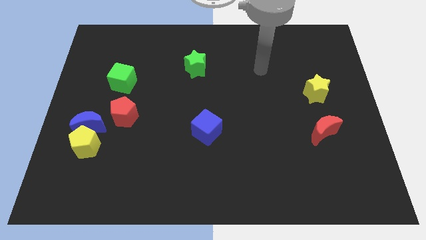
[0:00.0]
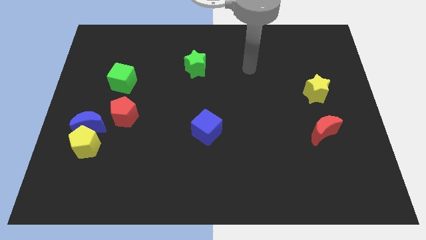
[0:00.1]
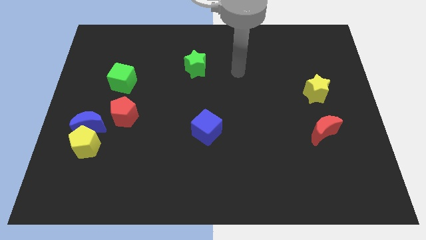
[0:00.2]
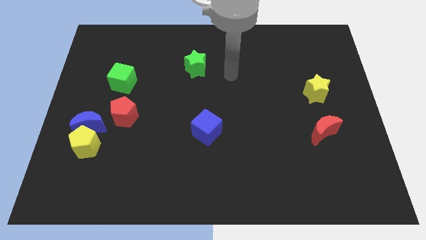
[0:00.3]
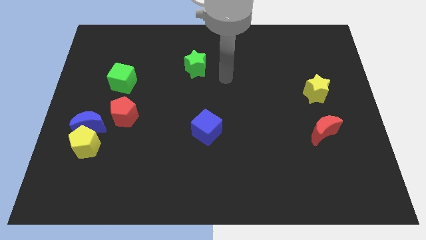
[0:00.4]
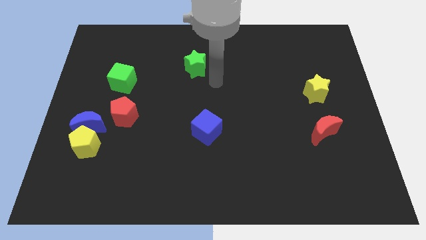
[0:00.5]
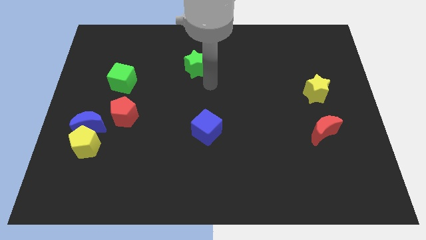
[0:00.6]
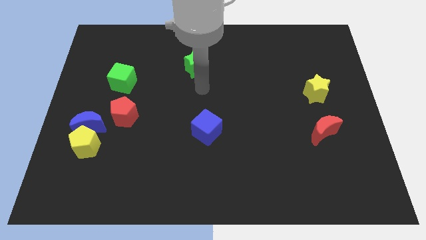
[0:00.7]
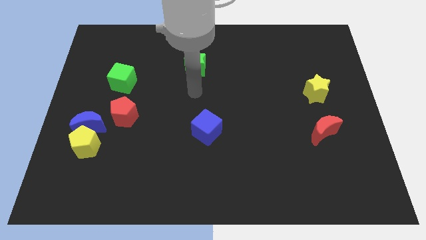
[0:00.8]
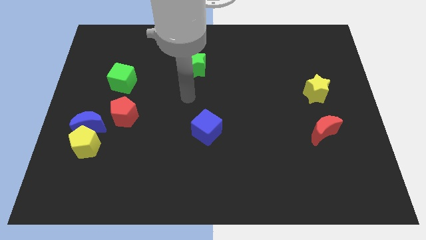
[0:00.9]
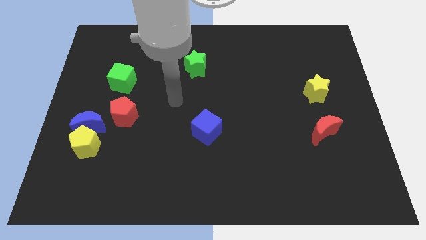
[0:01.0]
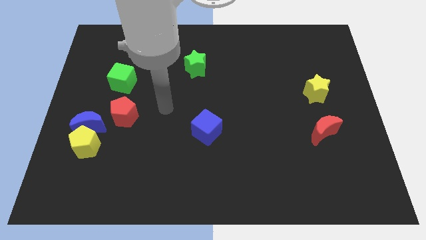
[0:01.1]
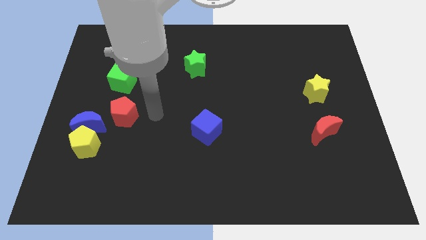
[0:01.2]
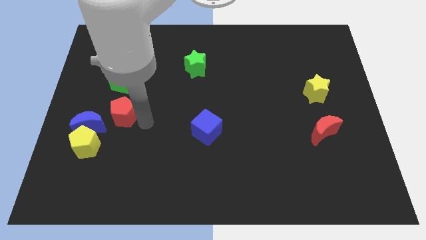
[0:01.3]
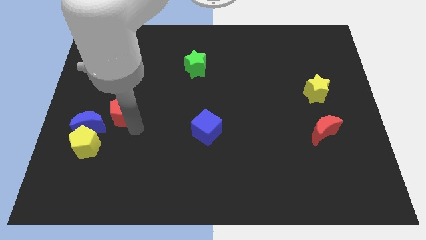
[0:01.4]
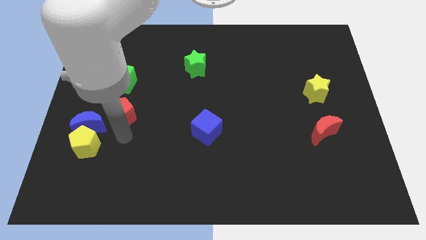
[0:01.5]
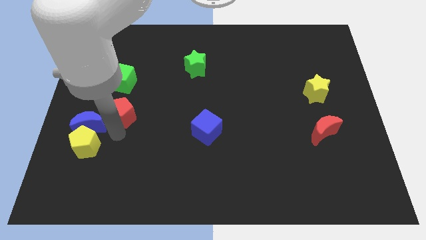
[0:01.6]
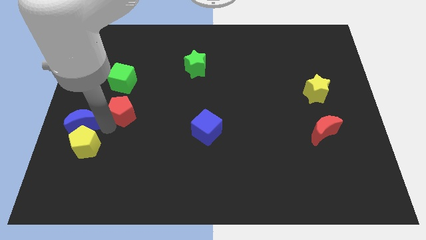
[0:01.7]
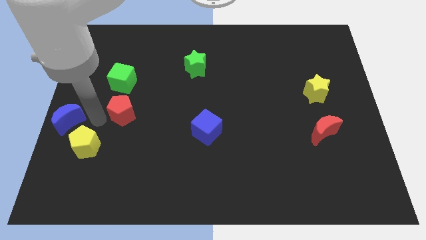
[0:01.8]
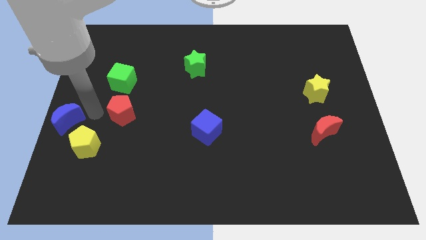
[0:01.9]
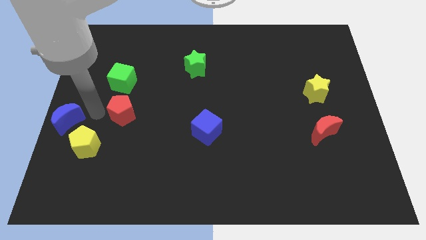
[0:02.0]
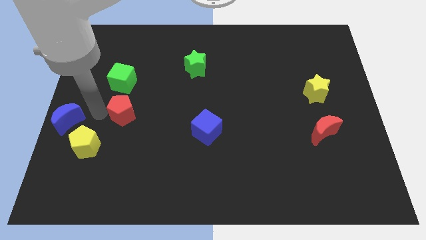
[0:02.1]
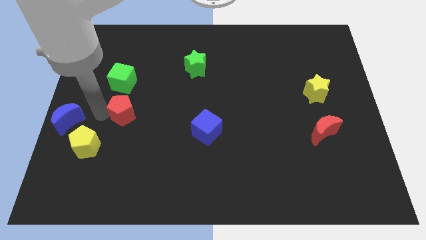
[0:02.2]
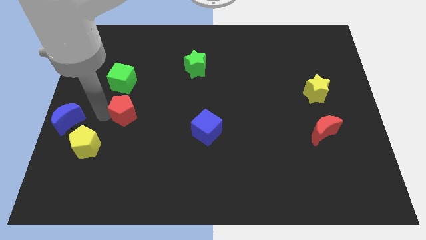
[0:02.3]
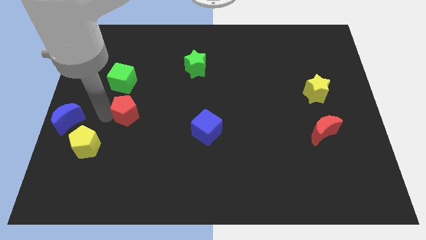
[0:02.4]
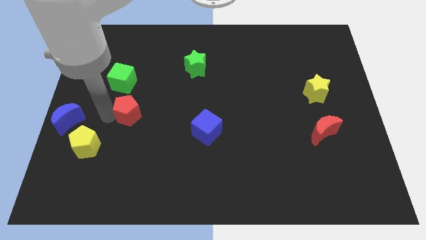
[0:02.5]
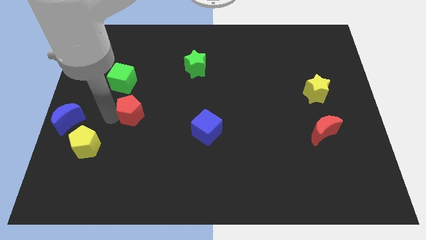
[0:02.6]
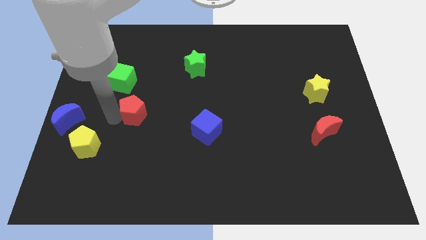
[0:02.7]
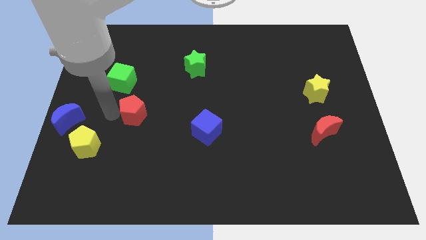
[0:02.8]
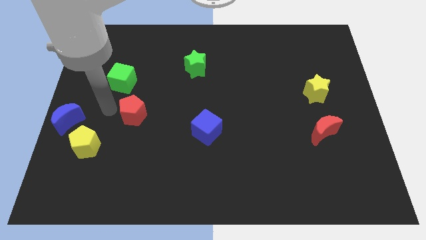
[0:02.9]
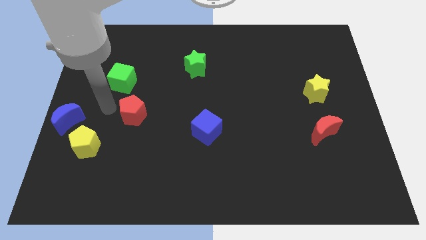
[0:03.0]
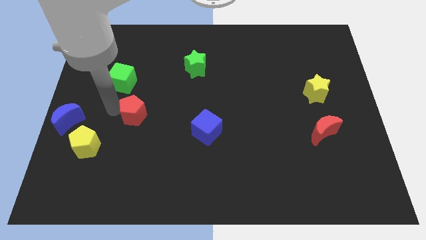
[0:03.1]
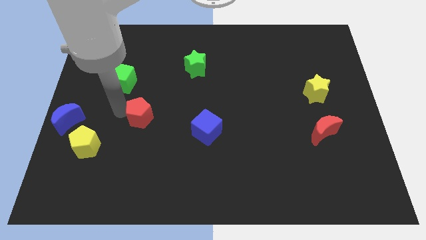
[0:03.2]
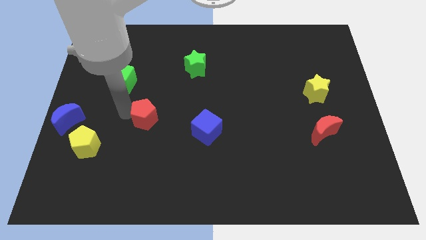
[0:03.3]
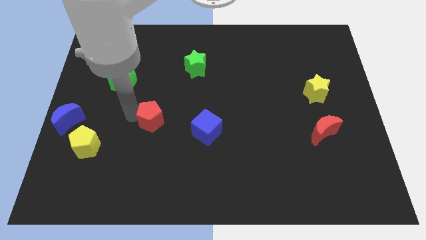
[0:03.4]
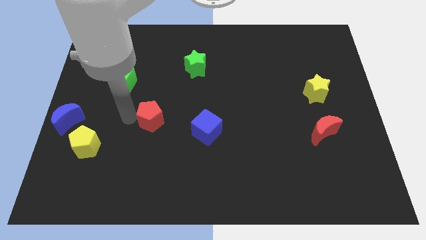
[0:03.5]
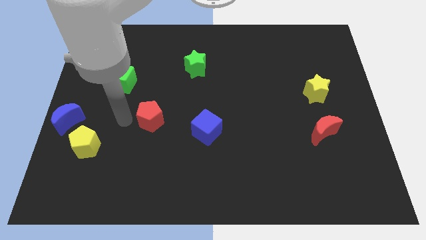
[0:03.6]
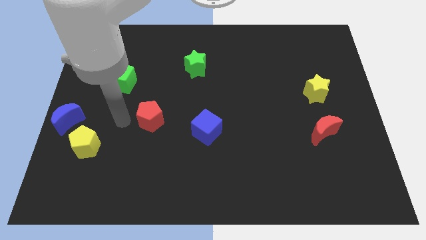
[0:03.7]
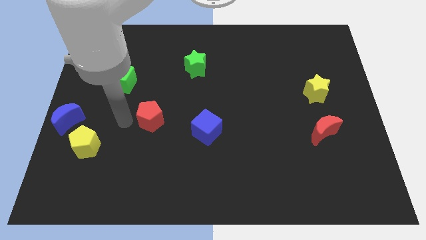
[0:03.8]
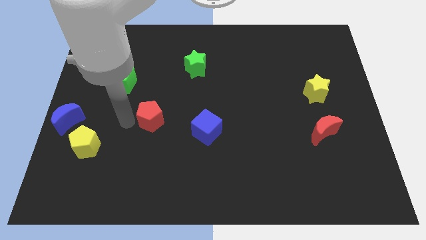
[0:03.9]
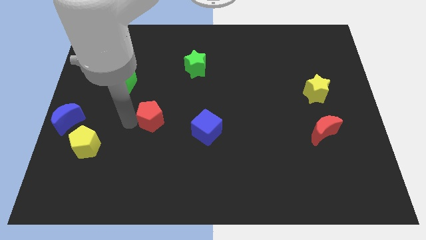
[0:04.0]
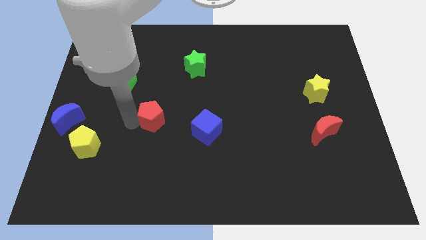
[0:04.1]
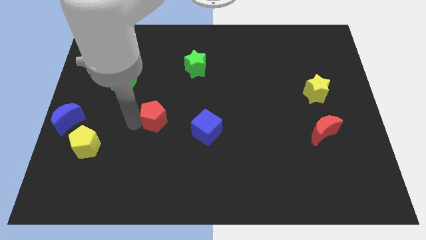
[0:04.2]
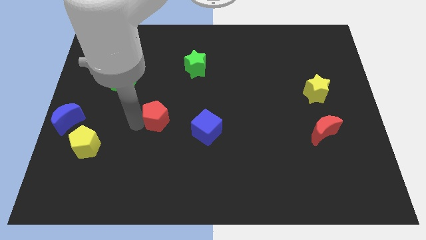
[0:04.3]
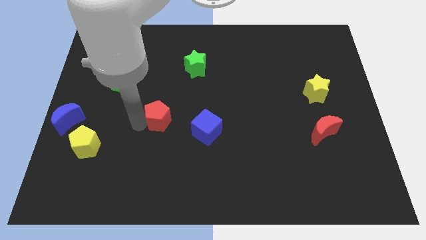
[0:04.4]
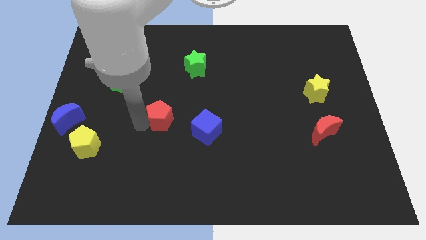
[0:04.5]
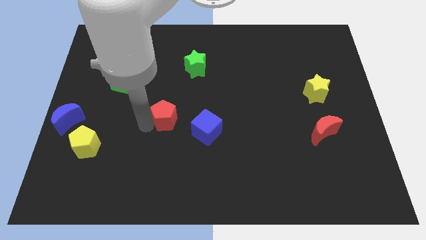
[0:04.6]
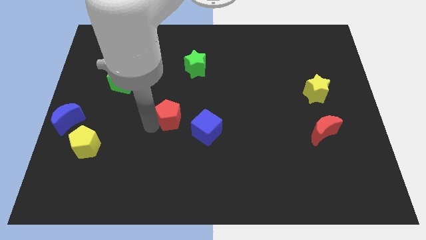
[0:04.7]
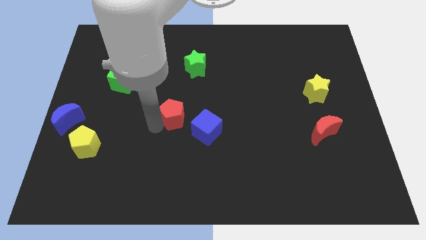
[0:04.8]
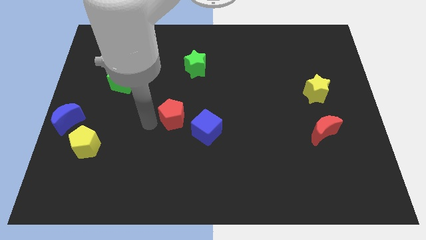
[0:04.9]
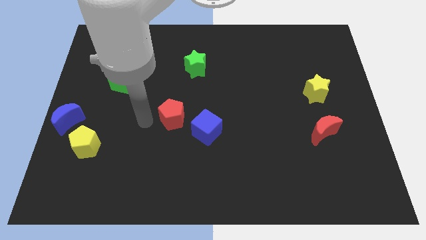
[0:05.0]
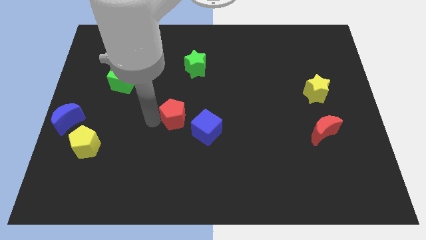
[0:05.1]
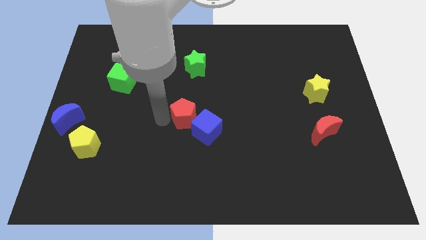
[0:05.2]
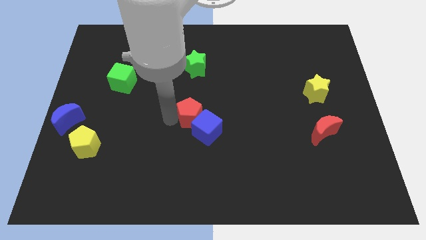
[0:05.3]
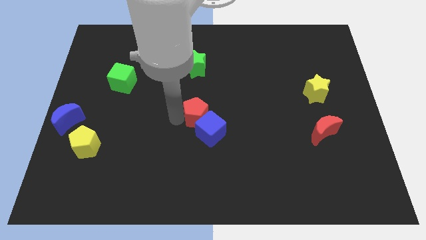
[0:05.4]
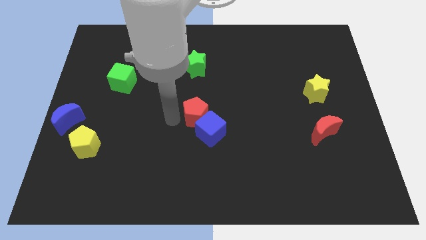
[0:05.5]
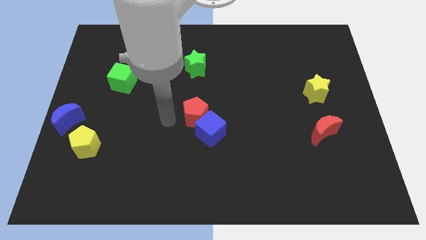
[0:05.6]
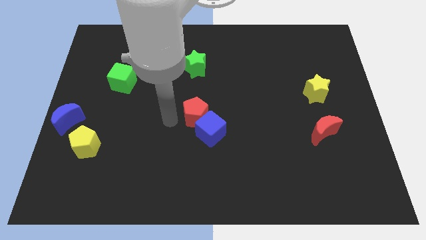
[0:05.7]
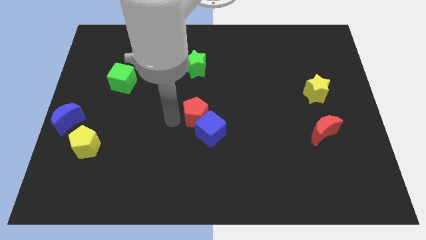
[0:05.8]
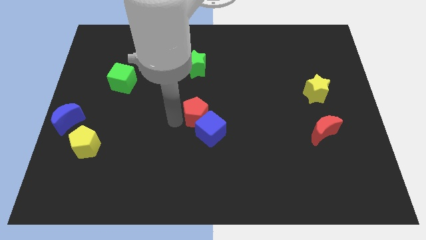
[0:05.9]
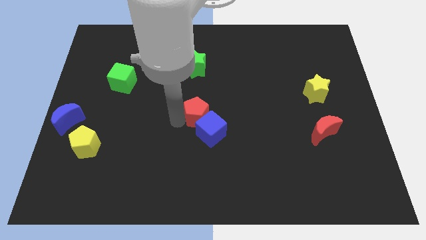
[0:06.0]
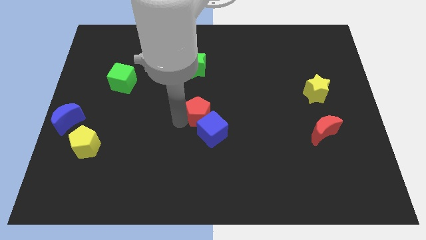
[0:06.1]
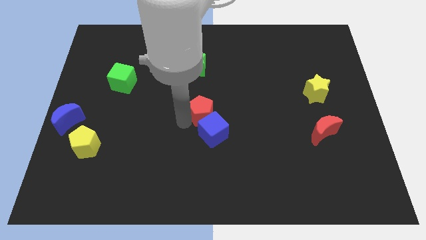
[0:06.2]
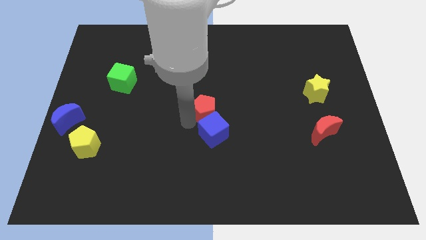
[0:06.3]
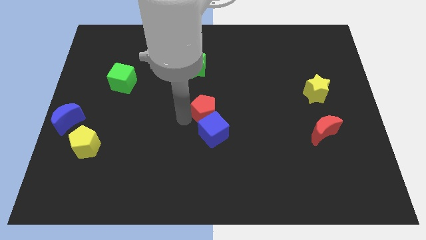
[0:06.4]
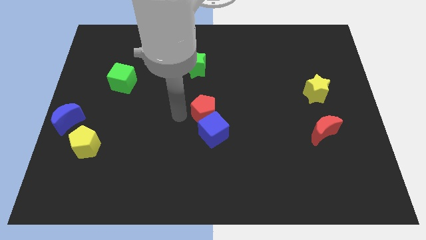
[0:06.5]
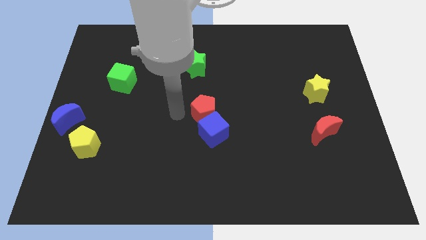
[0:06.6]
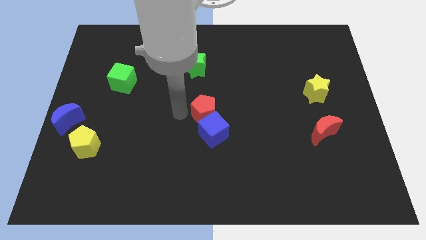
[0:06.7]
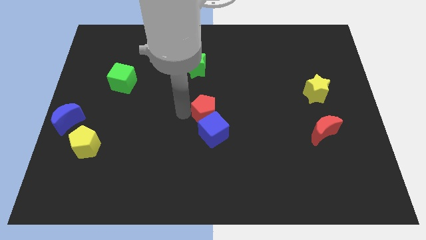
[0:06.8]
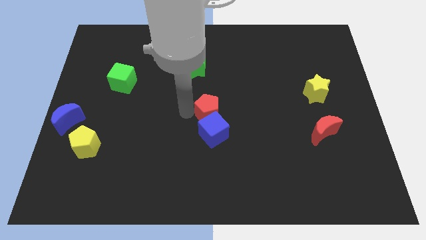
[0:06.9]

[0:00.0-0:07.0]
move the red pentagon diagonally up and to the right of the blue cube

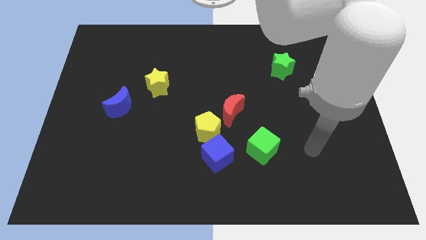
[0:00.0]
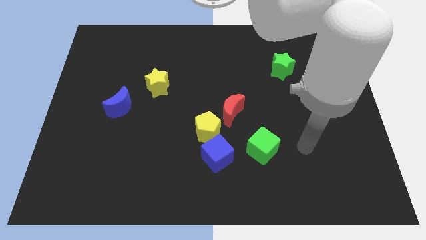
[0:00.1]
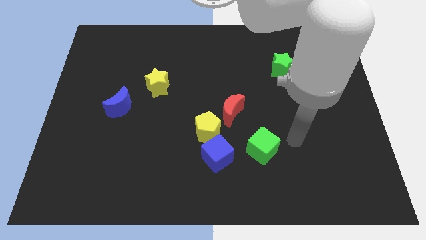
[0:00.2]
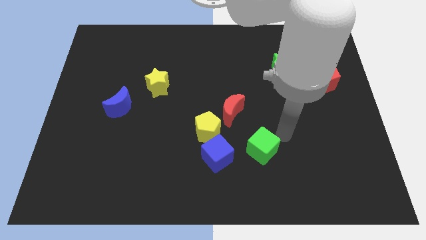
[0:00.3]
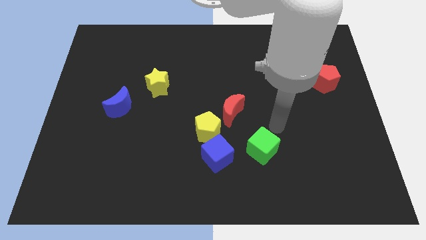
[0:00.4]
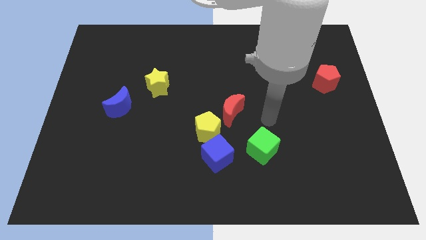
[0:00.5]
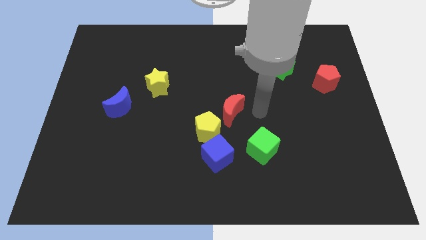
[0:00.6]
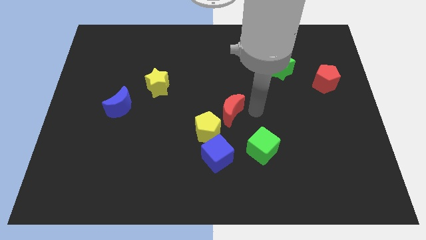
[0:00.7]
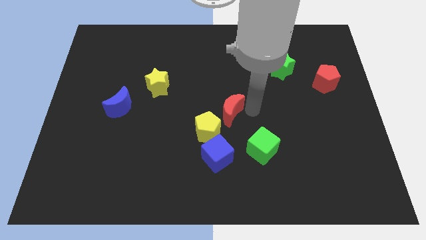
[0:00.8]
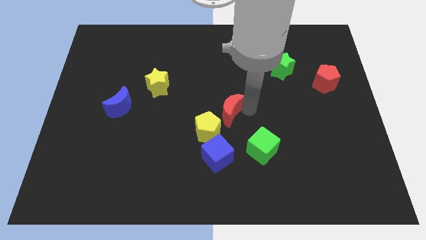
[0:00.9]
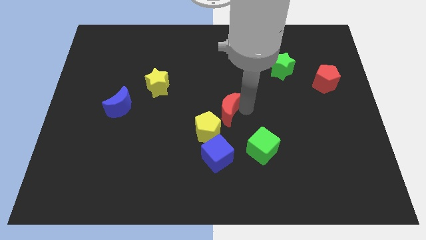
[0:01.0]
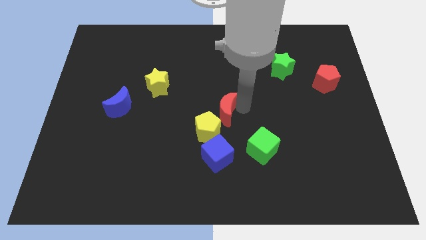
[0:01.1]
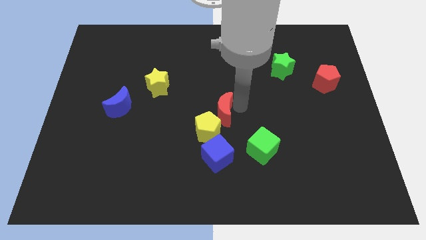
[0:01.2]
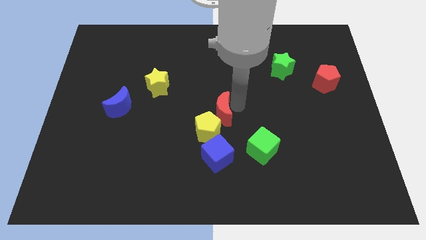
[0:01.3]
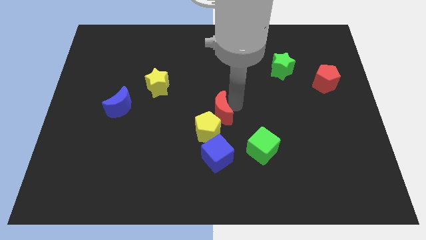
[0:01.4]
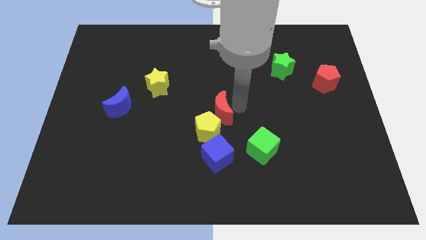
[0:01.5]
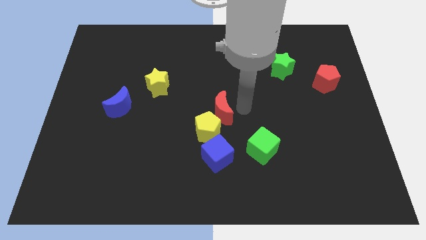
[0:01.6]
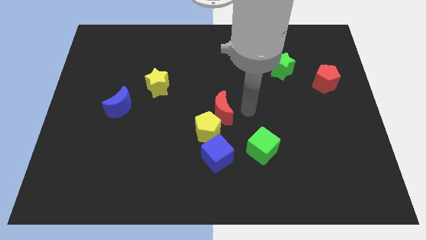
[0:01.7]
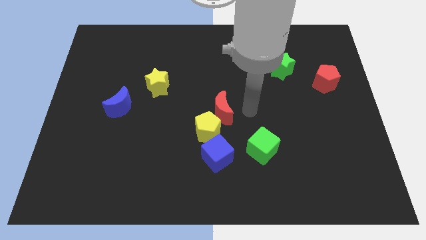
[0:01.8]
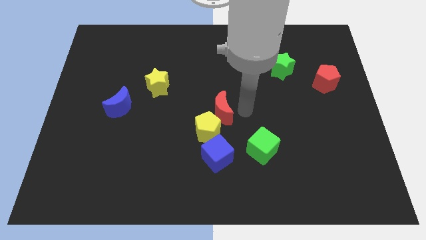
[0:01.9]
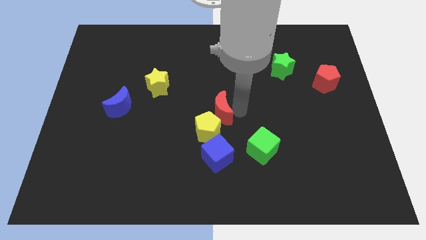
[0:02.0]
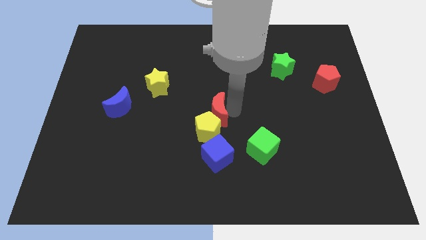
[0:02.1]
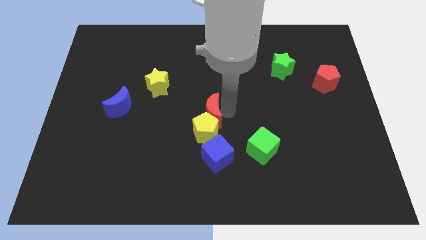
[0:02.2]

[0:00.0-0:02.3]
push the red moon to the top left side of the yellow pentagon
